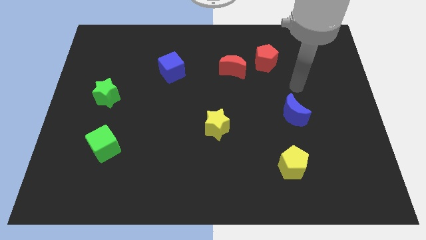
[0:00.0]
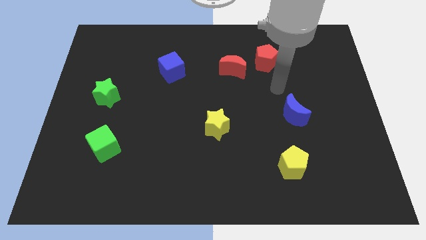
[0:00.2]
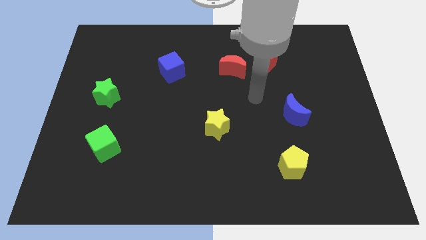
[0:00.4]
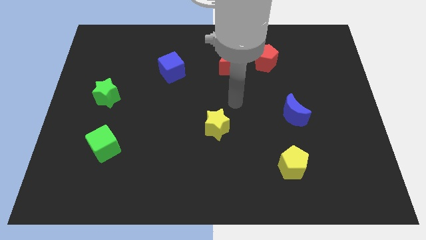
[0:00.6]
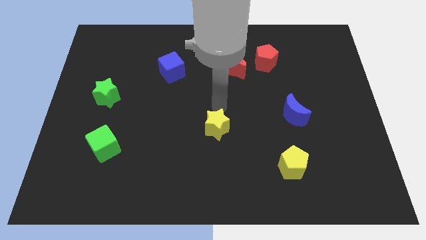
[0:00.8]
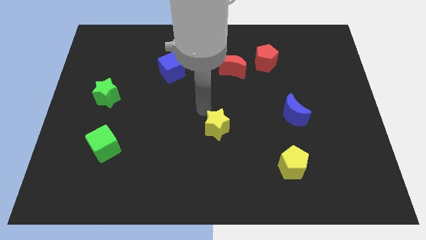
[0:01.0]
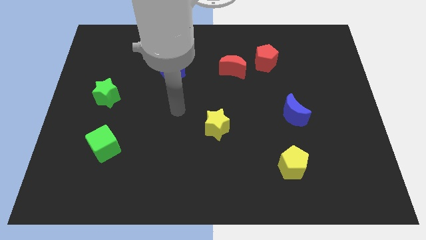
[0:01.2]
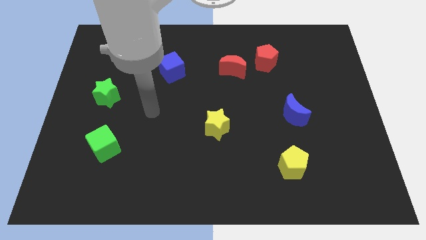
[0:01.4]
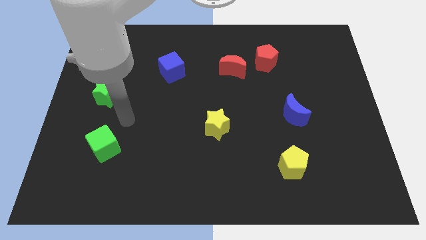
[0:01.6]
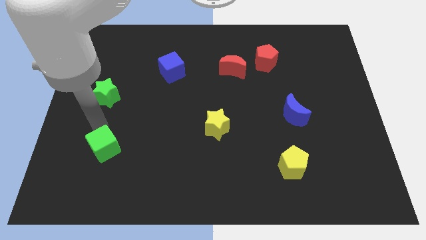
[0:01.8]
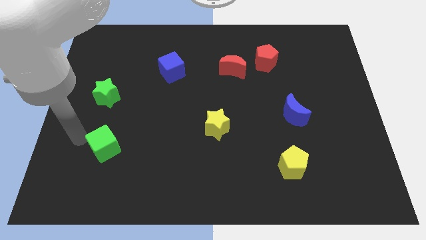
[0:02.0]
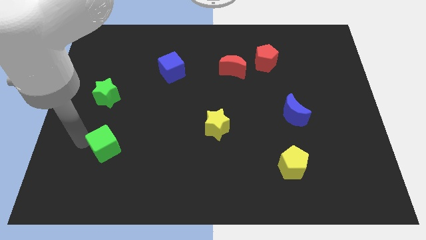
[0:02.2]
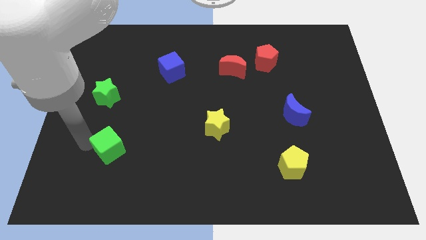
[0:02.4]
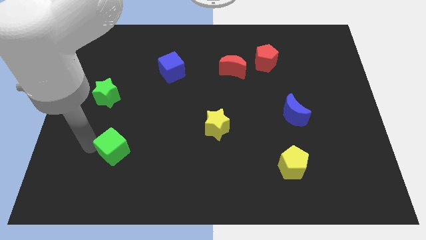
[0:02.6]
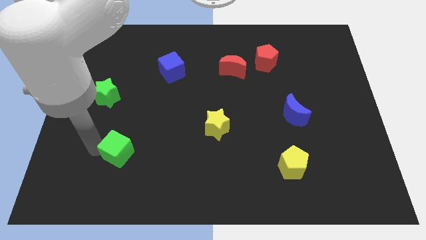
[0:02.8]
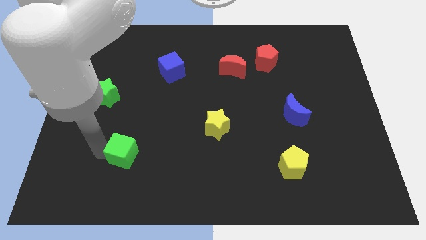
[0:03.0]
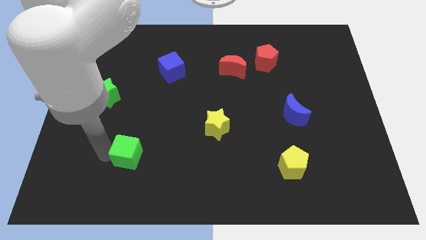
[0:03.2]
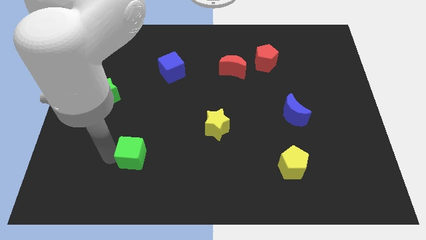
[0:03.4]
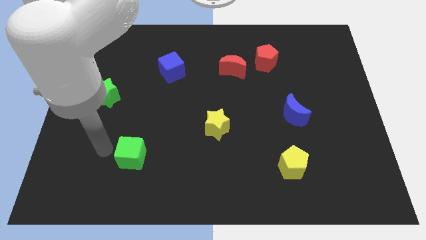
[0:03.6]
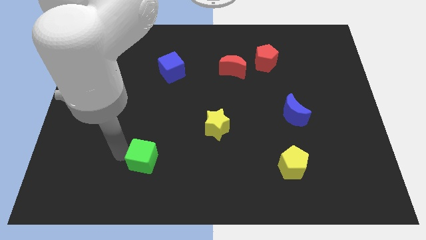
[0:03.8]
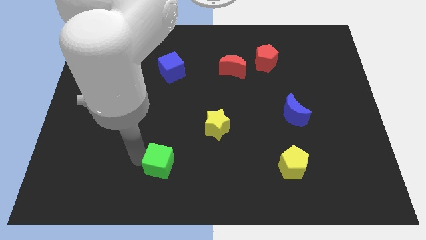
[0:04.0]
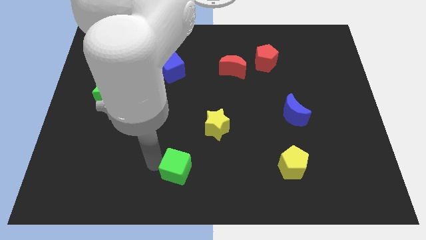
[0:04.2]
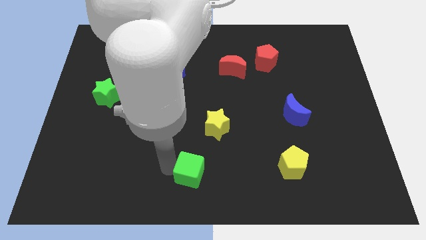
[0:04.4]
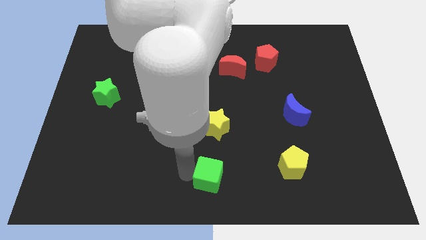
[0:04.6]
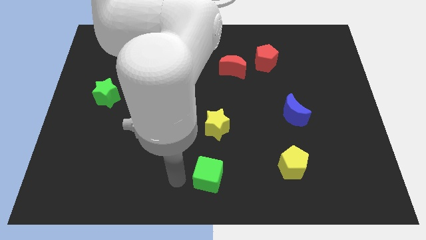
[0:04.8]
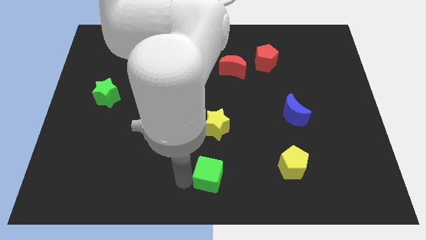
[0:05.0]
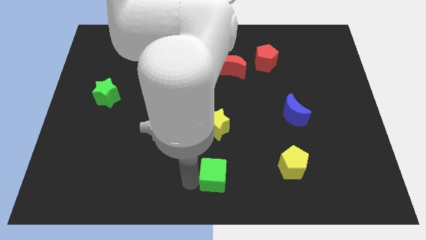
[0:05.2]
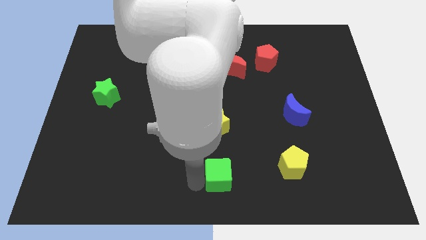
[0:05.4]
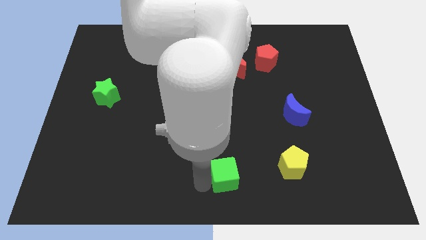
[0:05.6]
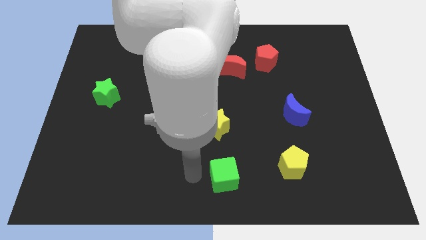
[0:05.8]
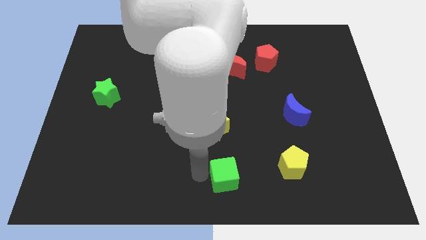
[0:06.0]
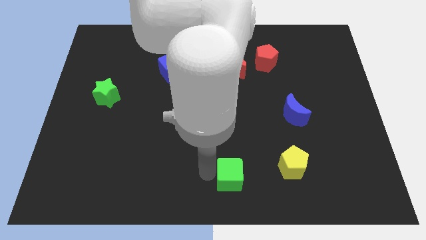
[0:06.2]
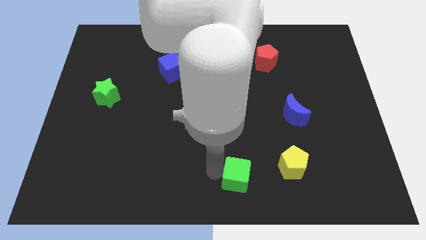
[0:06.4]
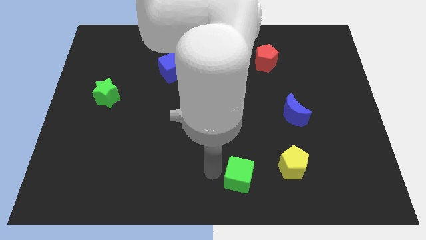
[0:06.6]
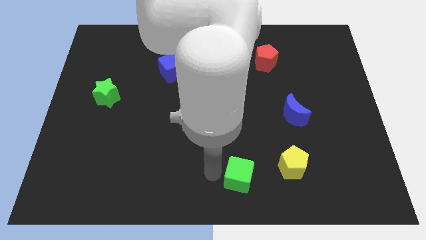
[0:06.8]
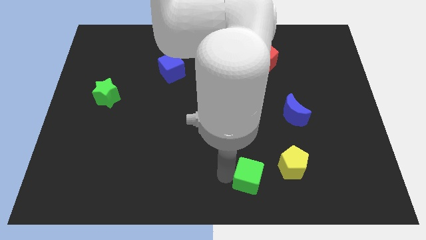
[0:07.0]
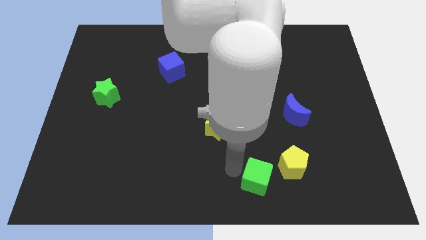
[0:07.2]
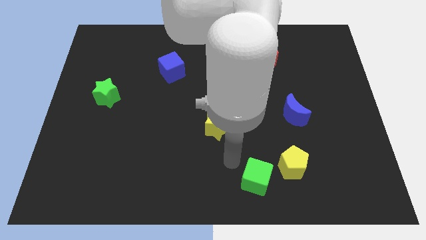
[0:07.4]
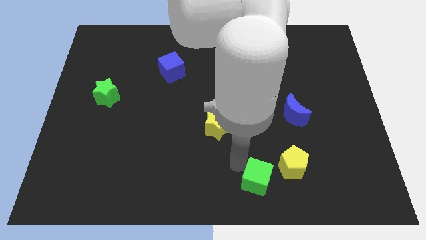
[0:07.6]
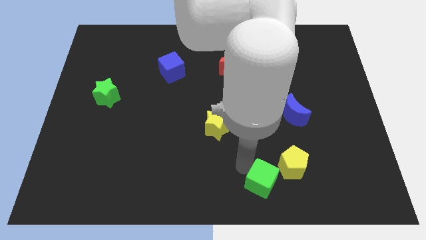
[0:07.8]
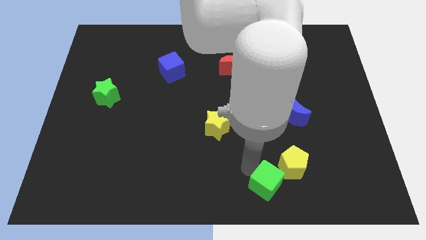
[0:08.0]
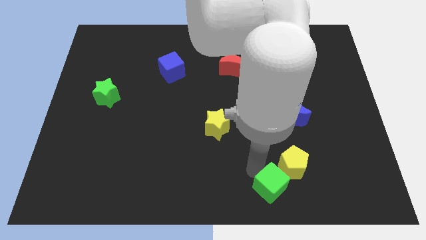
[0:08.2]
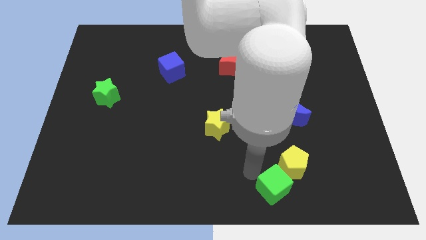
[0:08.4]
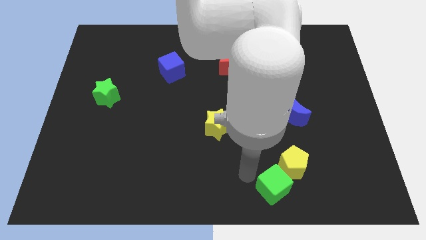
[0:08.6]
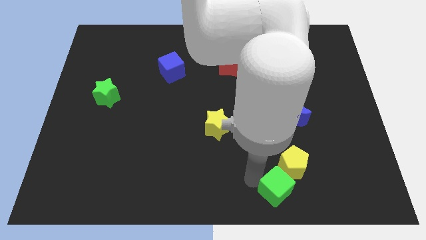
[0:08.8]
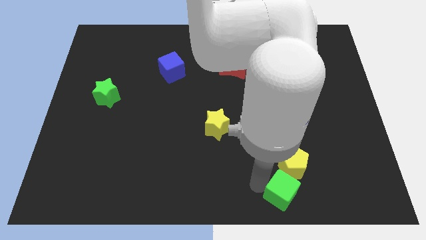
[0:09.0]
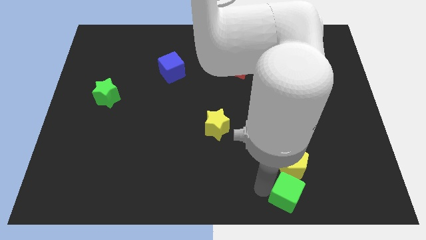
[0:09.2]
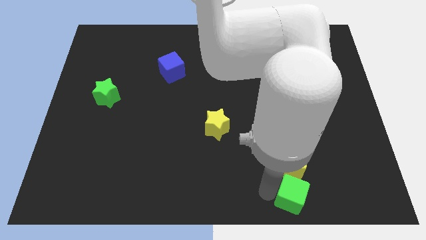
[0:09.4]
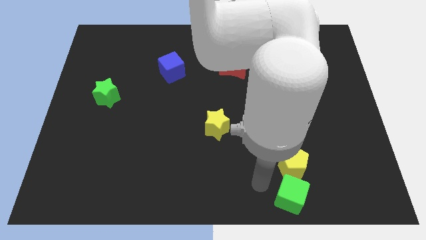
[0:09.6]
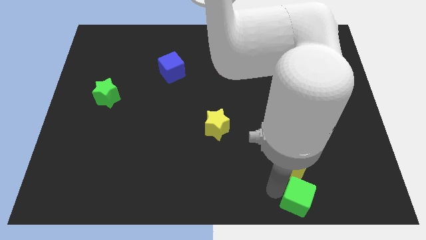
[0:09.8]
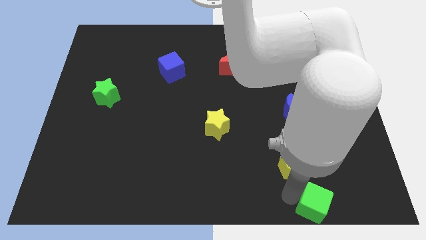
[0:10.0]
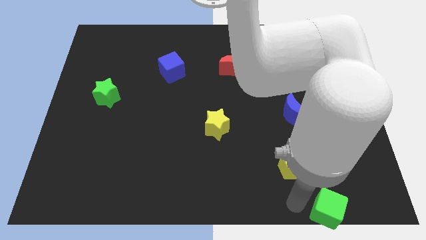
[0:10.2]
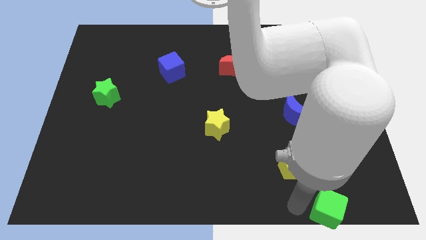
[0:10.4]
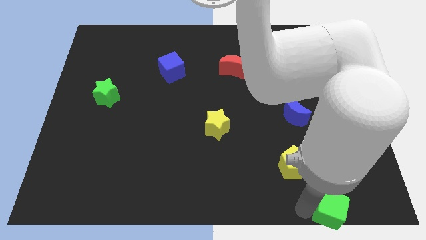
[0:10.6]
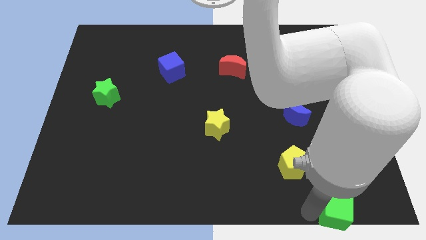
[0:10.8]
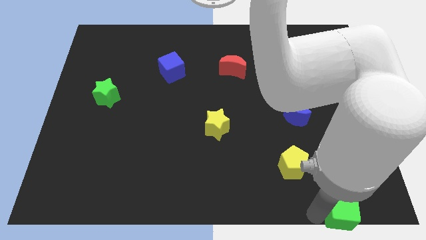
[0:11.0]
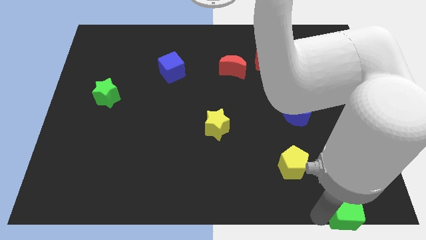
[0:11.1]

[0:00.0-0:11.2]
slide the green cube to the bottom right corner

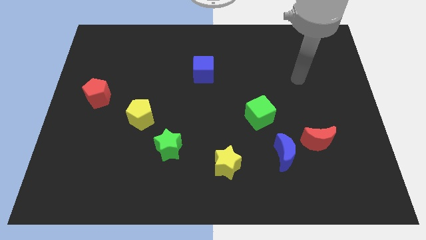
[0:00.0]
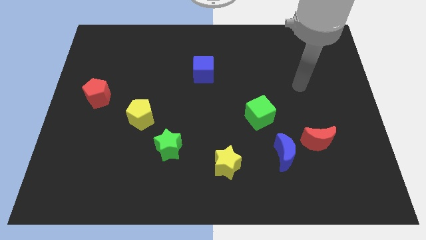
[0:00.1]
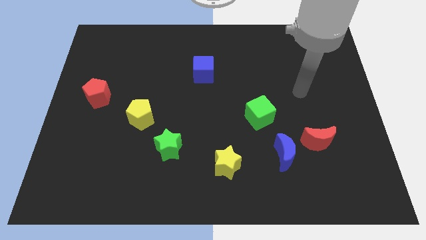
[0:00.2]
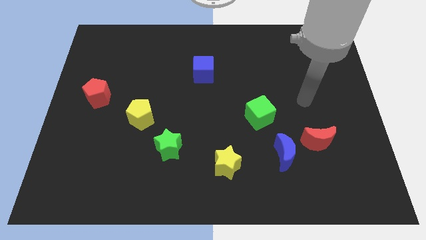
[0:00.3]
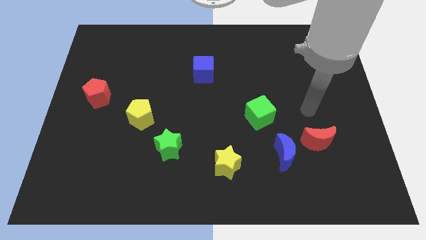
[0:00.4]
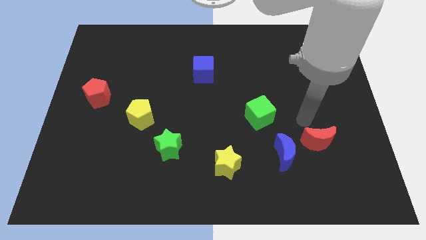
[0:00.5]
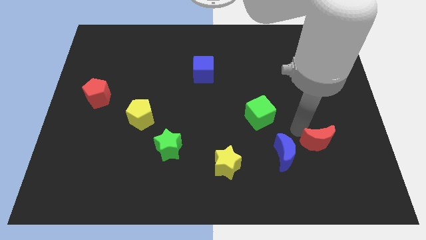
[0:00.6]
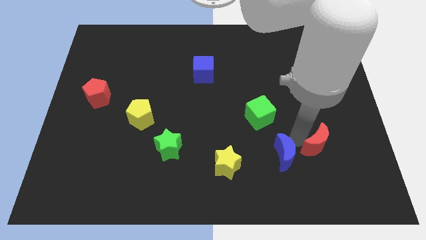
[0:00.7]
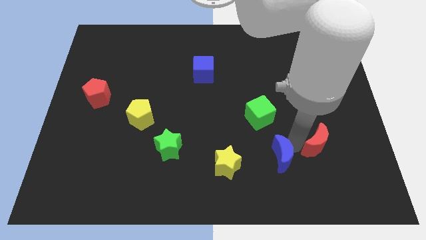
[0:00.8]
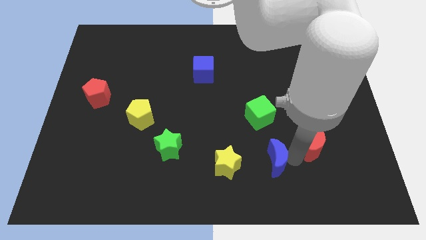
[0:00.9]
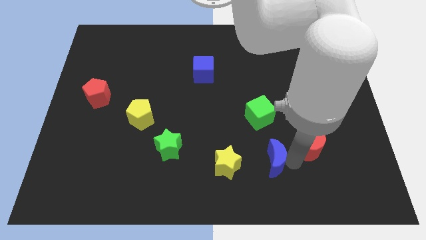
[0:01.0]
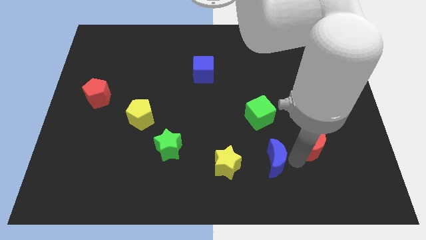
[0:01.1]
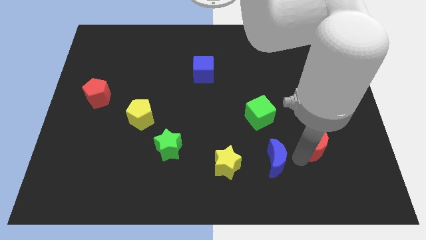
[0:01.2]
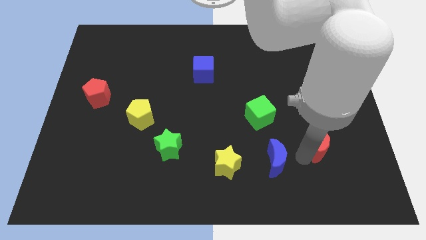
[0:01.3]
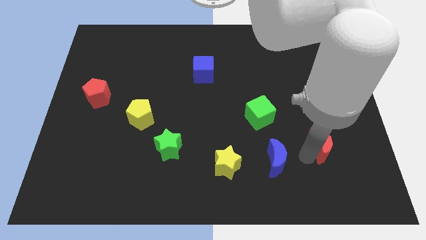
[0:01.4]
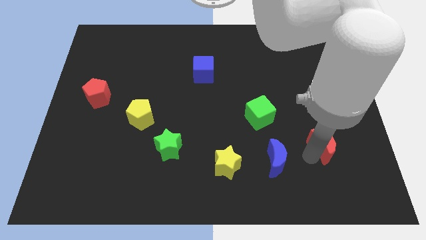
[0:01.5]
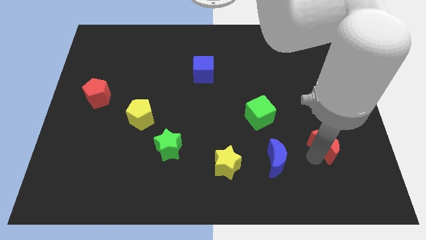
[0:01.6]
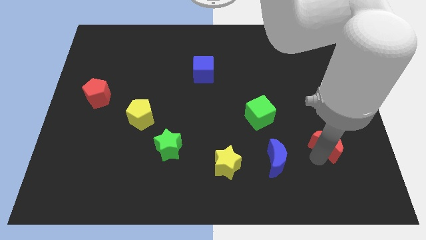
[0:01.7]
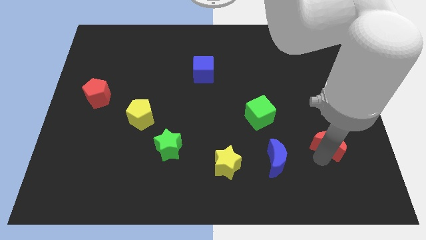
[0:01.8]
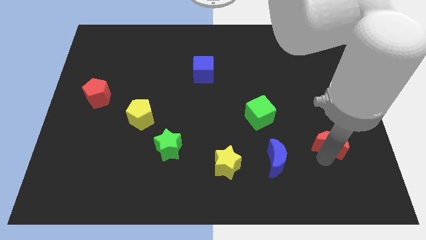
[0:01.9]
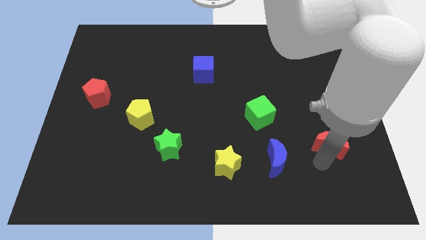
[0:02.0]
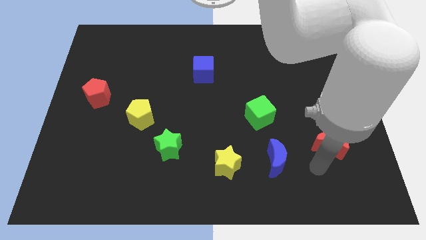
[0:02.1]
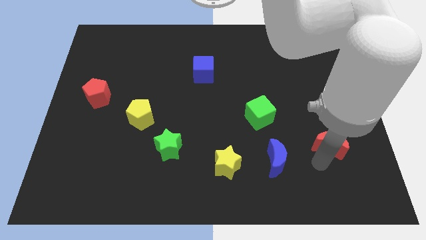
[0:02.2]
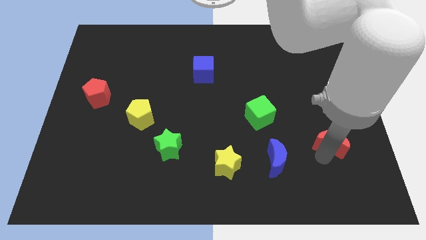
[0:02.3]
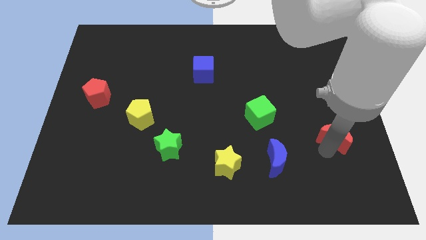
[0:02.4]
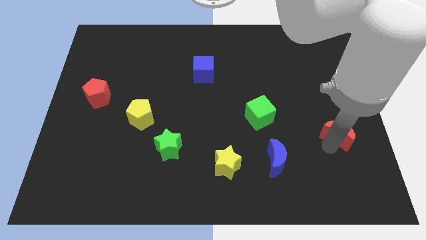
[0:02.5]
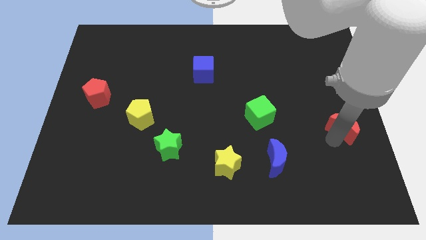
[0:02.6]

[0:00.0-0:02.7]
slide the red moon to the center right
